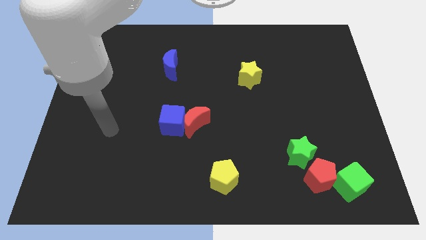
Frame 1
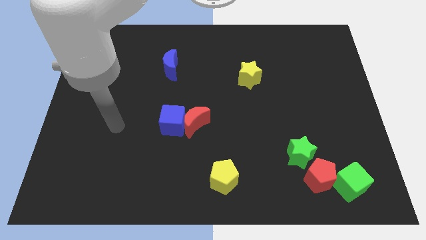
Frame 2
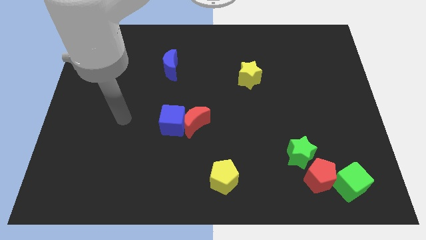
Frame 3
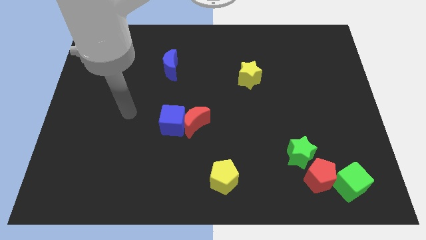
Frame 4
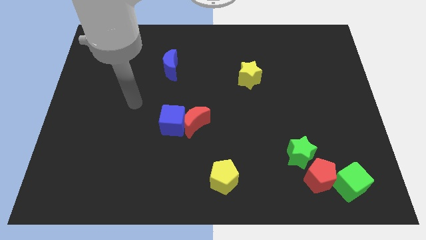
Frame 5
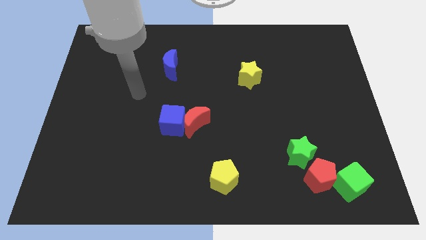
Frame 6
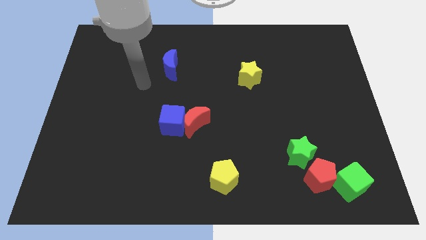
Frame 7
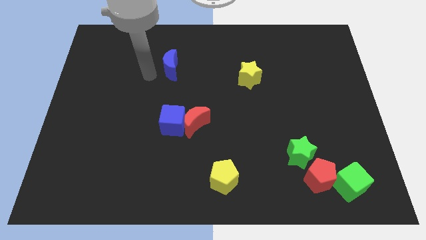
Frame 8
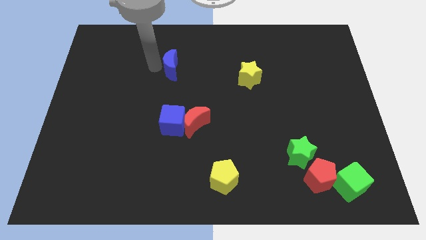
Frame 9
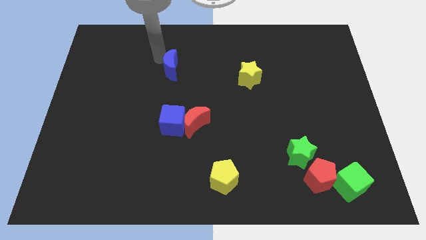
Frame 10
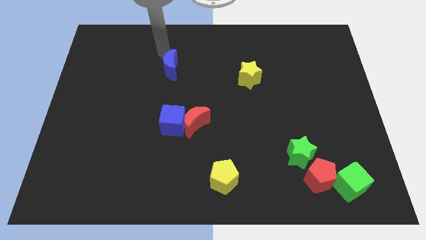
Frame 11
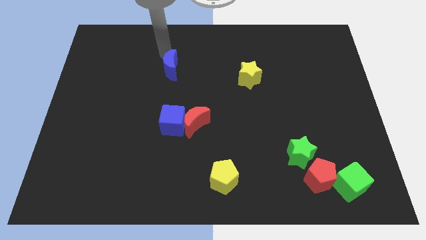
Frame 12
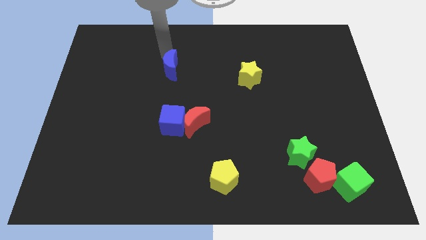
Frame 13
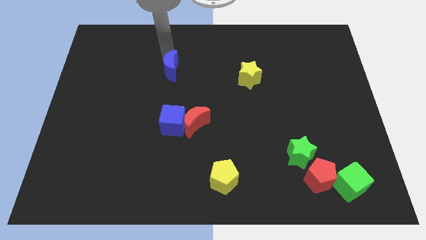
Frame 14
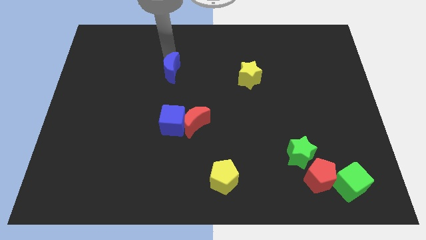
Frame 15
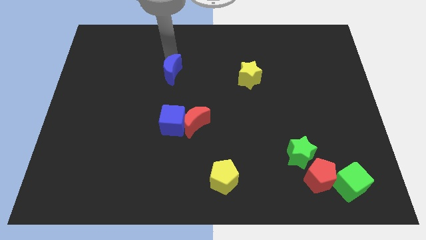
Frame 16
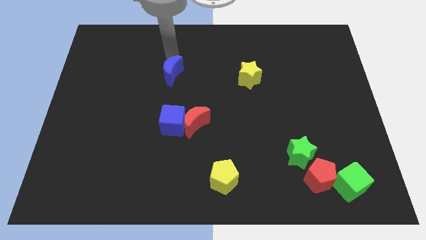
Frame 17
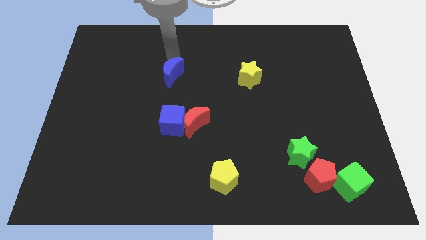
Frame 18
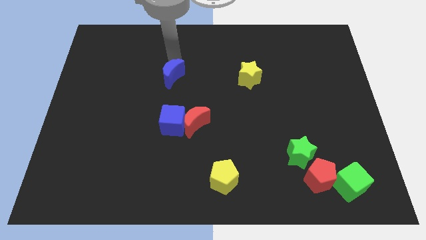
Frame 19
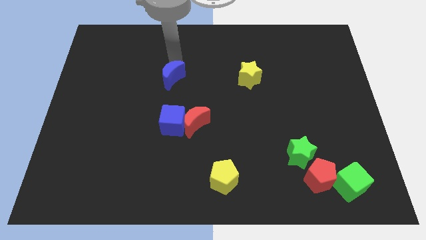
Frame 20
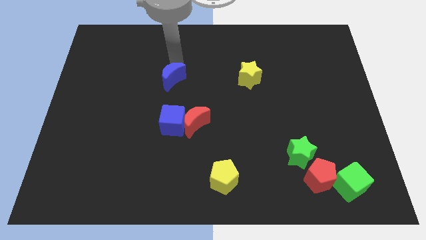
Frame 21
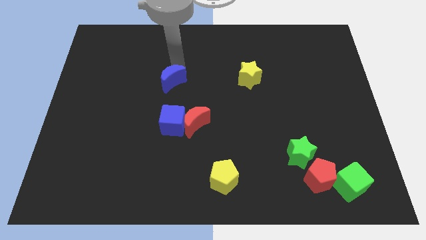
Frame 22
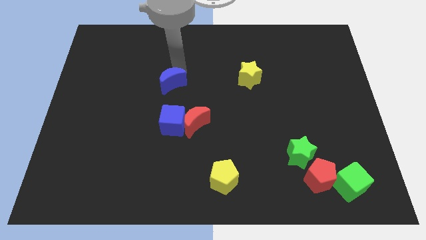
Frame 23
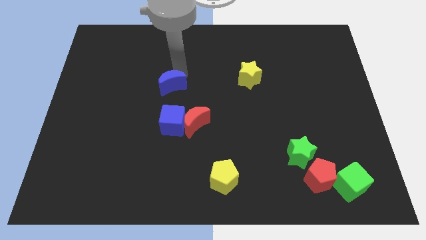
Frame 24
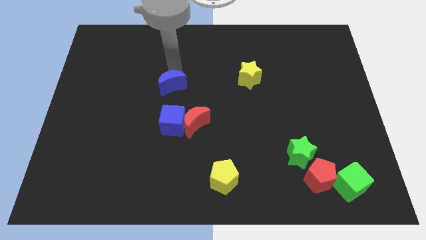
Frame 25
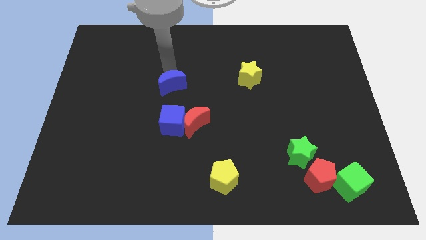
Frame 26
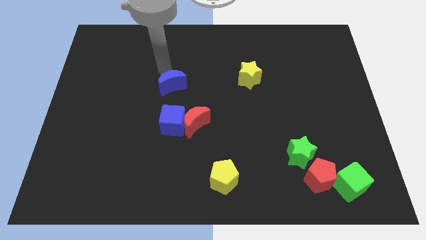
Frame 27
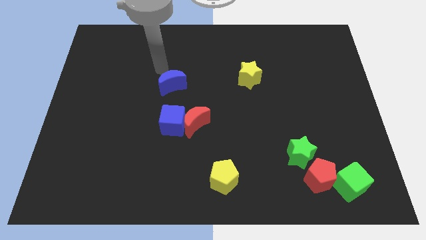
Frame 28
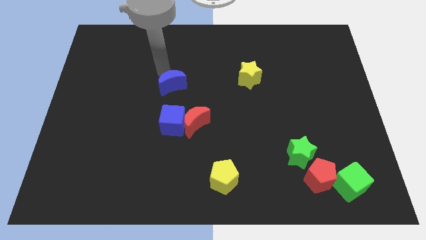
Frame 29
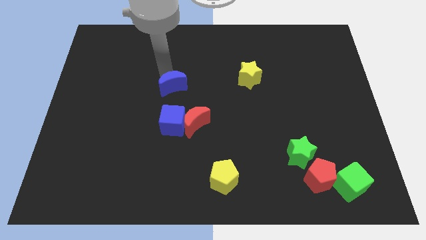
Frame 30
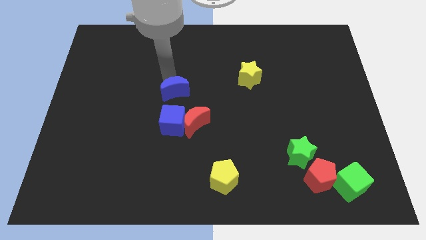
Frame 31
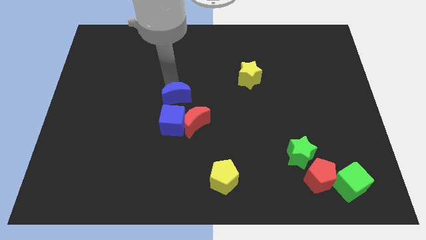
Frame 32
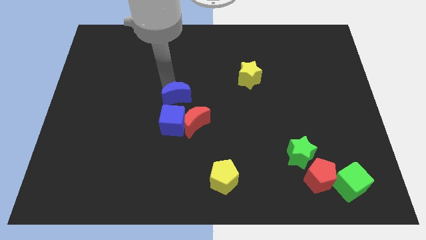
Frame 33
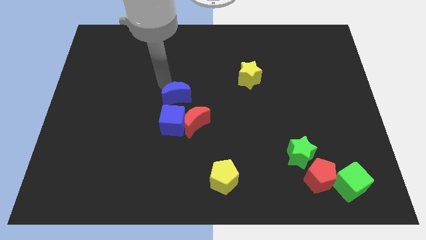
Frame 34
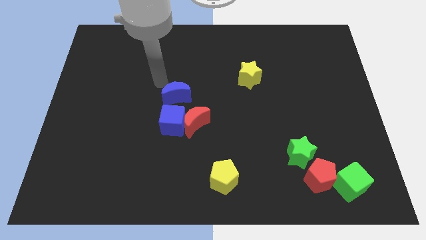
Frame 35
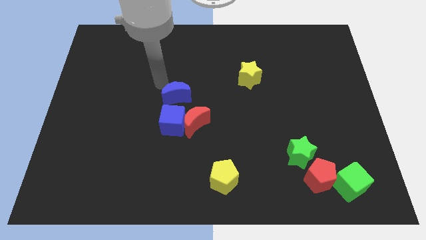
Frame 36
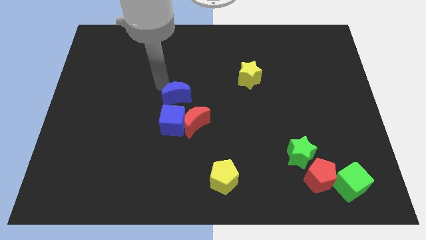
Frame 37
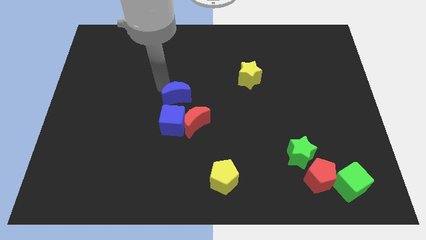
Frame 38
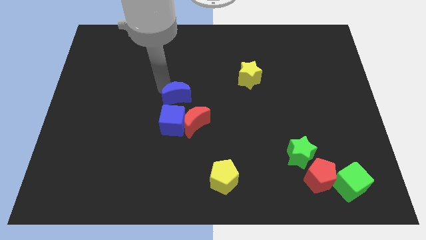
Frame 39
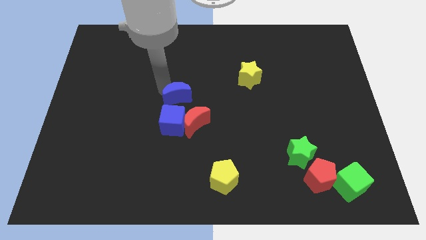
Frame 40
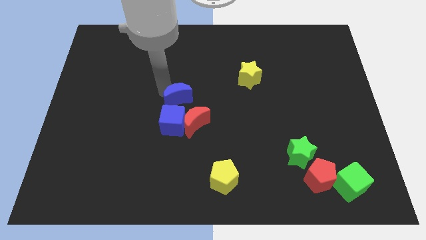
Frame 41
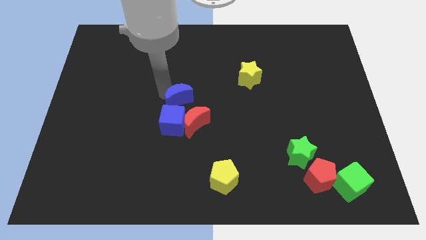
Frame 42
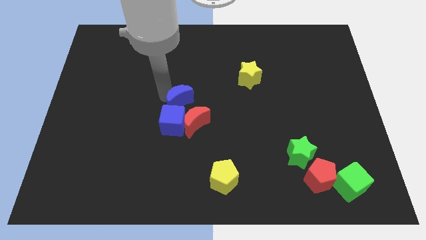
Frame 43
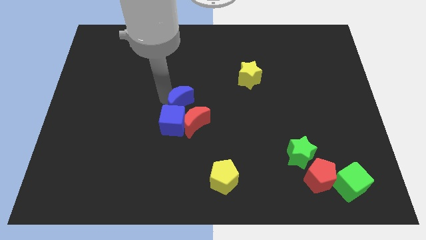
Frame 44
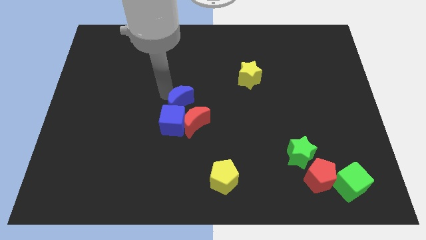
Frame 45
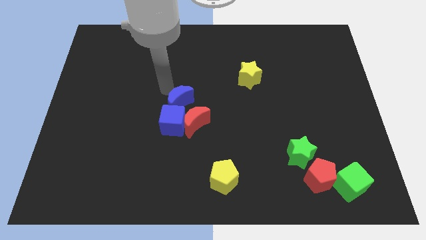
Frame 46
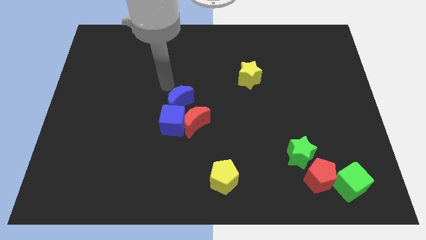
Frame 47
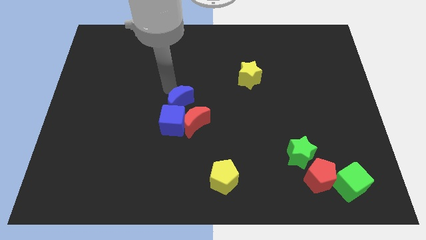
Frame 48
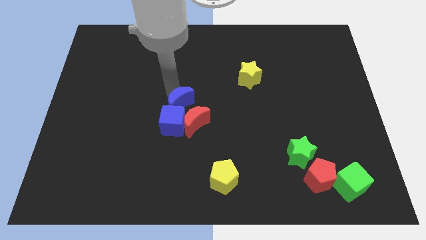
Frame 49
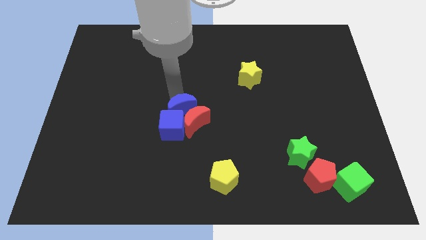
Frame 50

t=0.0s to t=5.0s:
push the blue moon to the red moon

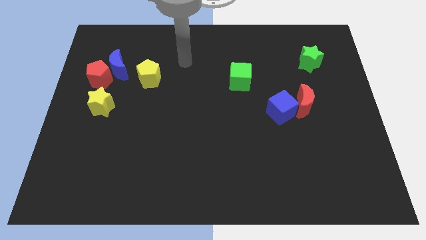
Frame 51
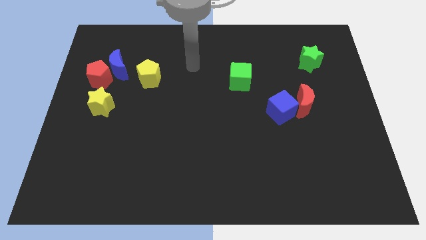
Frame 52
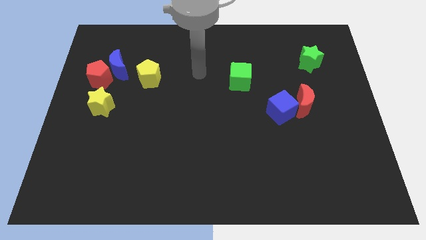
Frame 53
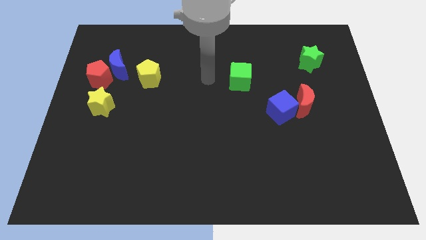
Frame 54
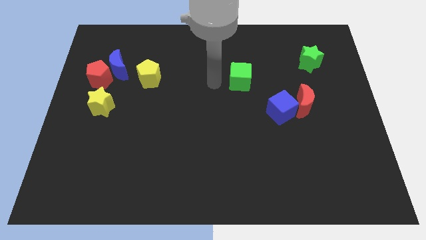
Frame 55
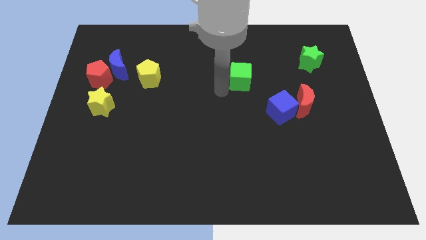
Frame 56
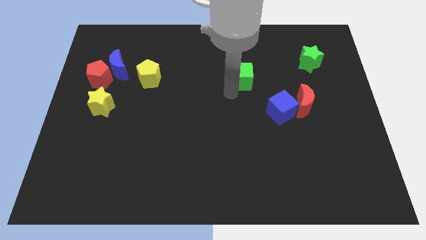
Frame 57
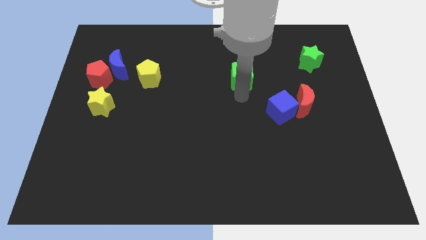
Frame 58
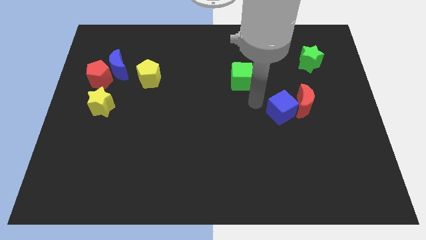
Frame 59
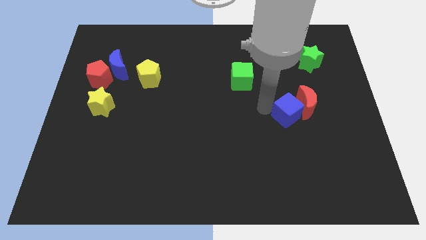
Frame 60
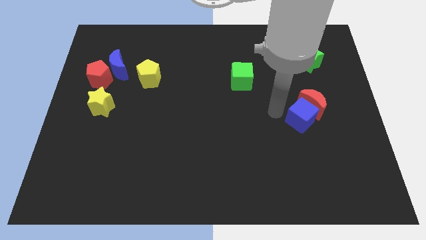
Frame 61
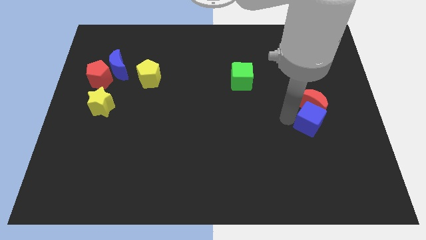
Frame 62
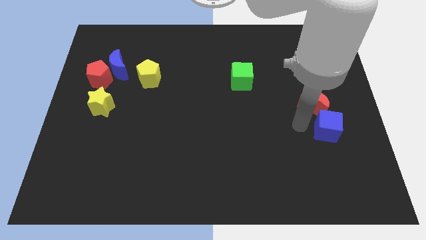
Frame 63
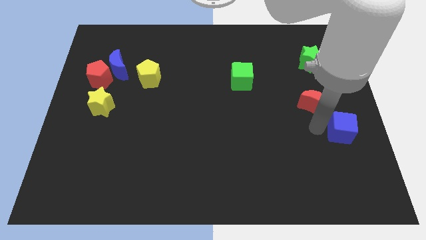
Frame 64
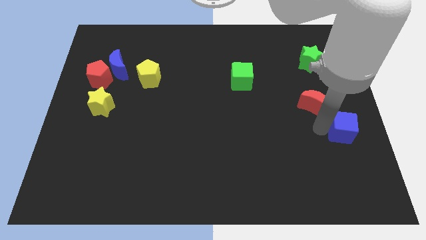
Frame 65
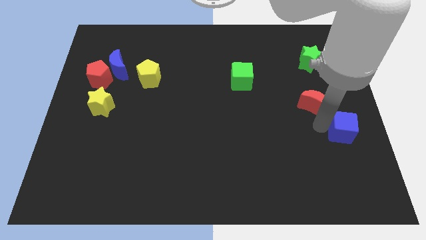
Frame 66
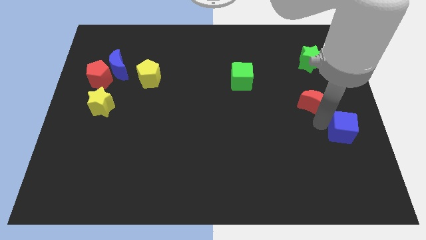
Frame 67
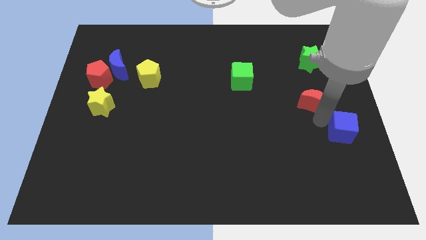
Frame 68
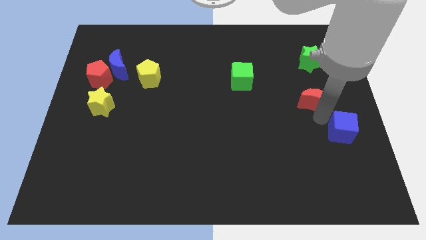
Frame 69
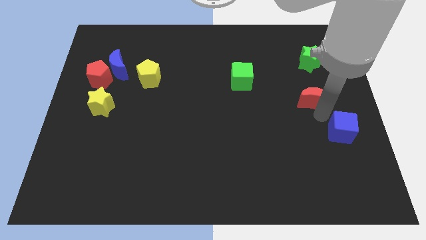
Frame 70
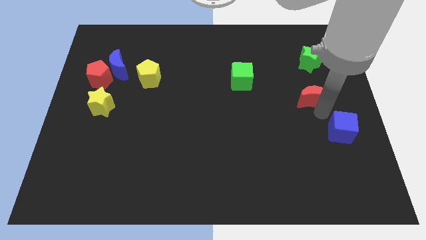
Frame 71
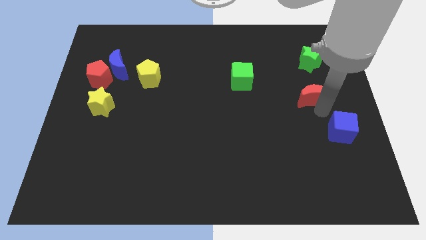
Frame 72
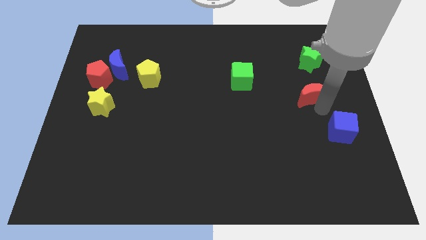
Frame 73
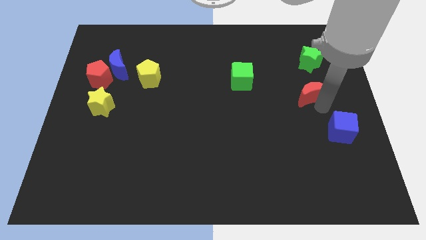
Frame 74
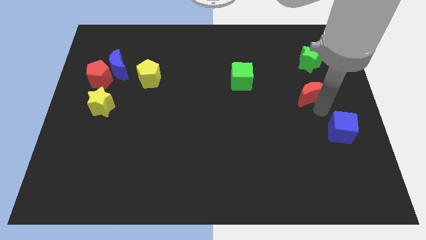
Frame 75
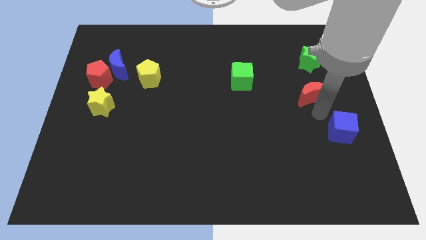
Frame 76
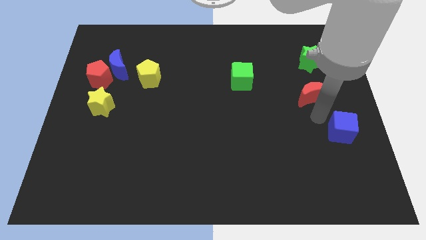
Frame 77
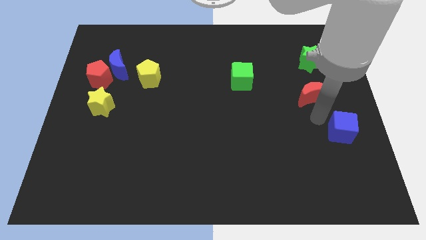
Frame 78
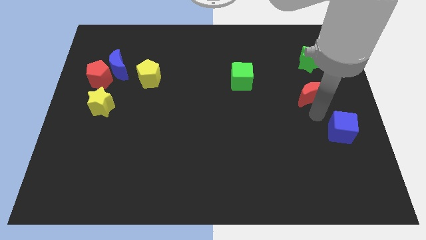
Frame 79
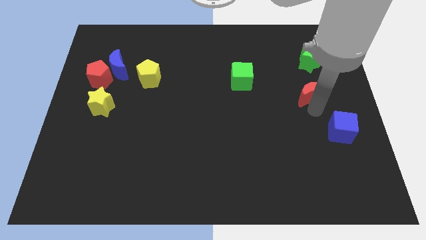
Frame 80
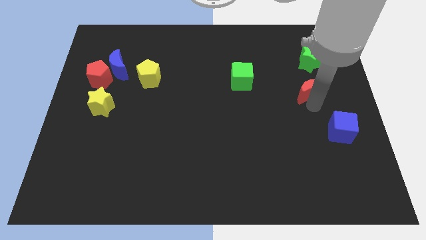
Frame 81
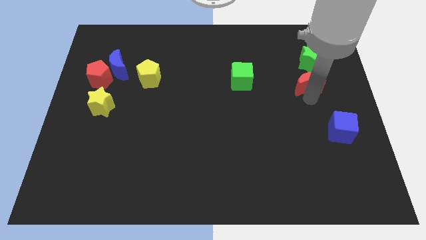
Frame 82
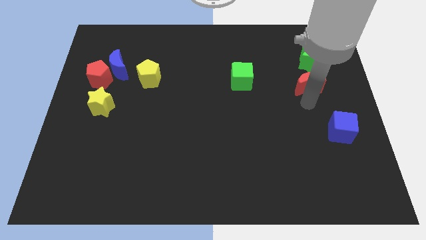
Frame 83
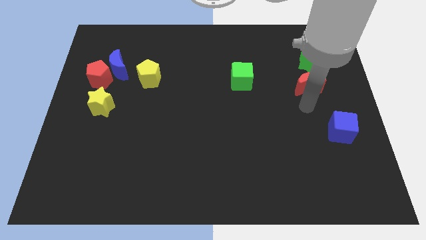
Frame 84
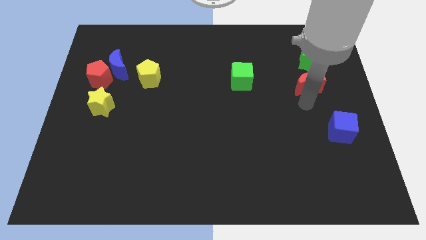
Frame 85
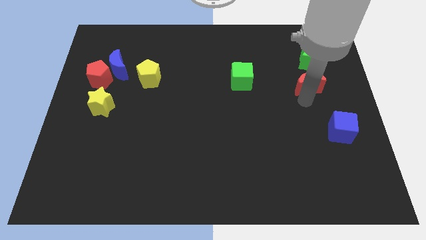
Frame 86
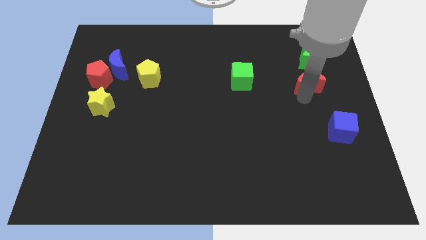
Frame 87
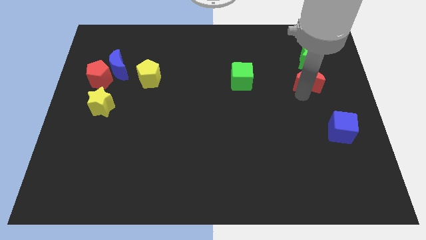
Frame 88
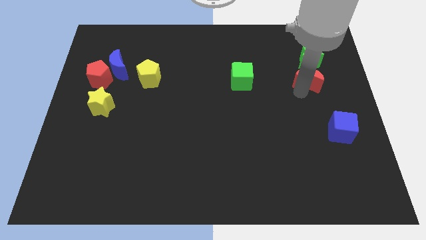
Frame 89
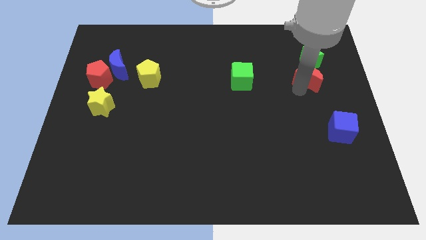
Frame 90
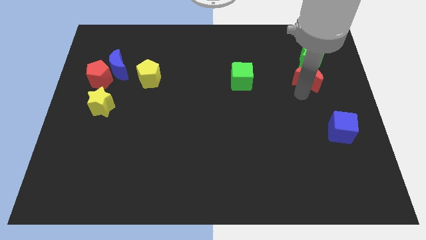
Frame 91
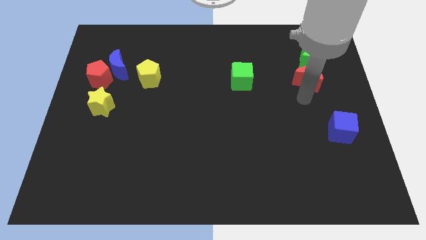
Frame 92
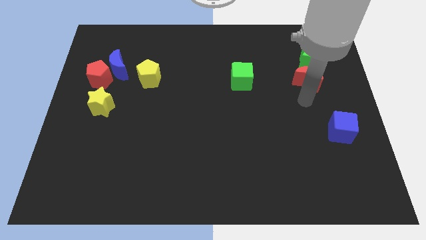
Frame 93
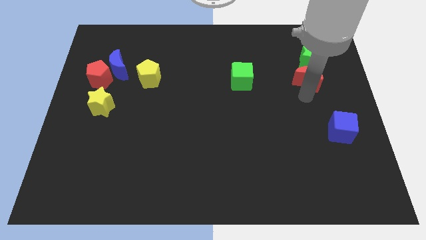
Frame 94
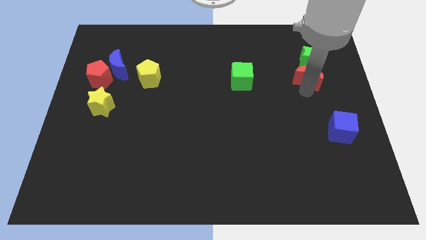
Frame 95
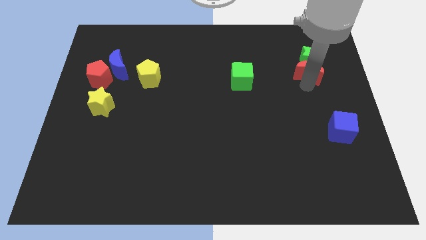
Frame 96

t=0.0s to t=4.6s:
push the red moon close to the green star
